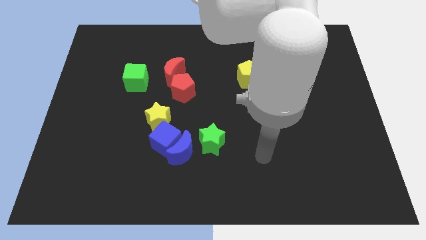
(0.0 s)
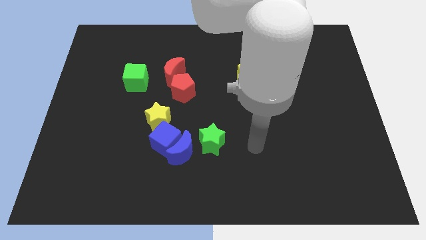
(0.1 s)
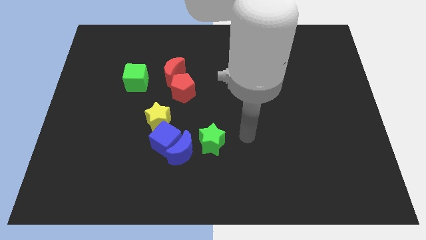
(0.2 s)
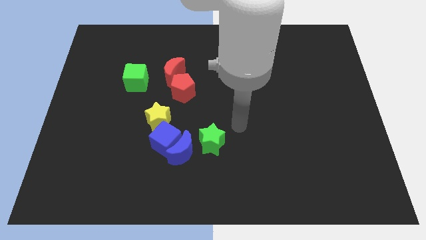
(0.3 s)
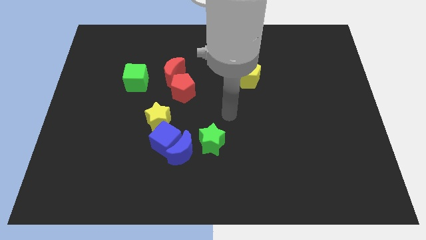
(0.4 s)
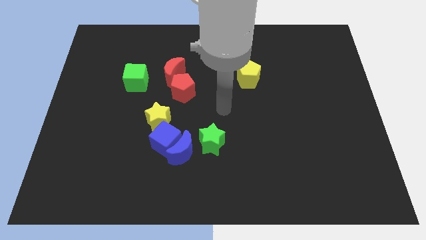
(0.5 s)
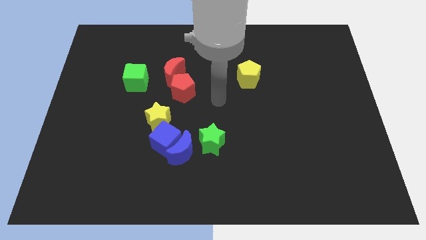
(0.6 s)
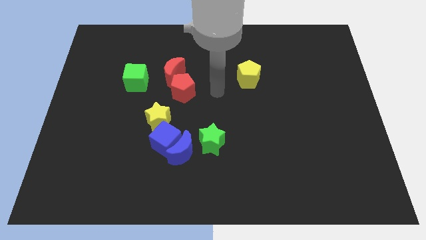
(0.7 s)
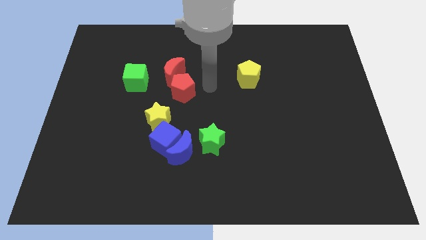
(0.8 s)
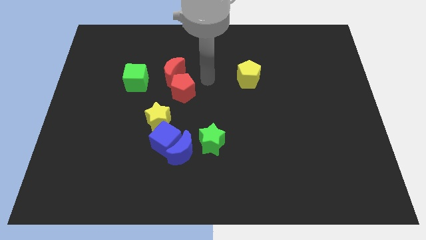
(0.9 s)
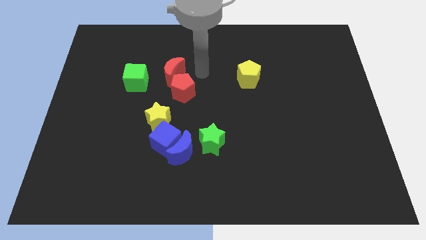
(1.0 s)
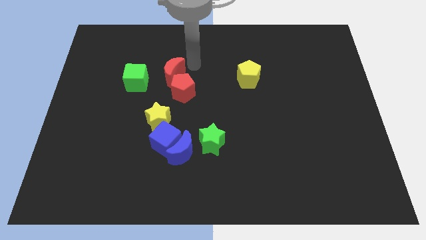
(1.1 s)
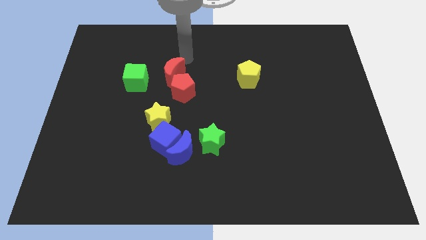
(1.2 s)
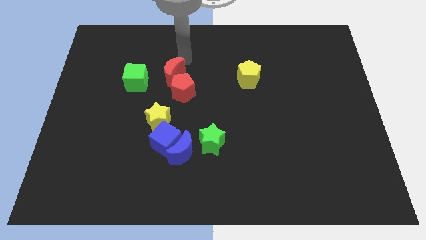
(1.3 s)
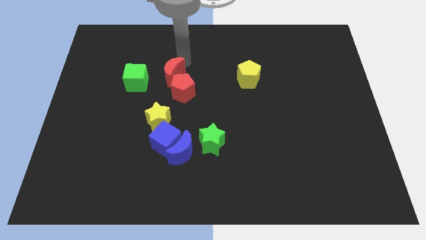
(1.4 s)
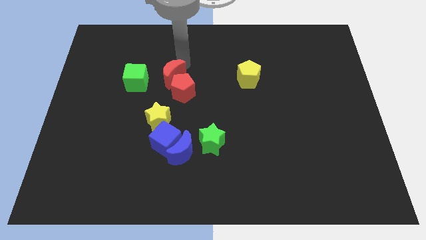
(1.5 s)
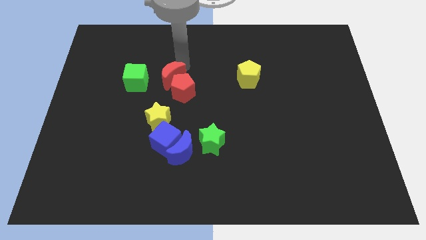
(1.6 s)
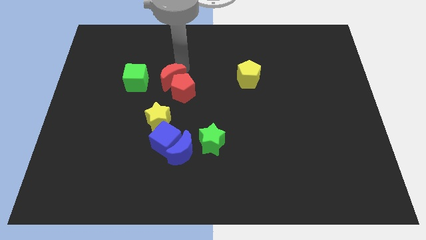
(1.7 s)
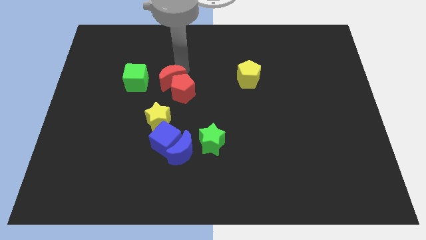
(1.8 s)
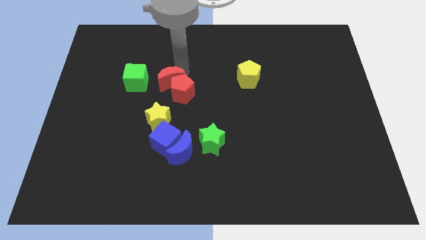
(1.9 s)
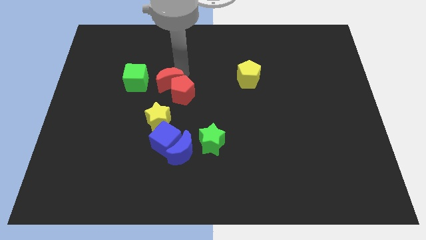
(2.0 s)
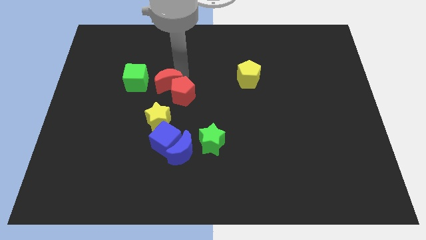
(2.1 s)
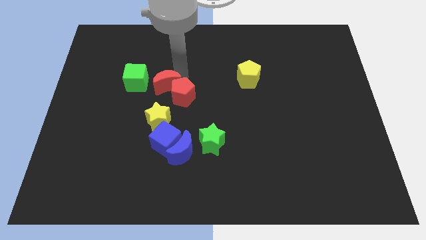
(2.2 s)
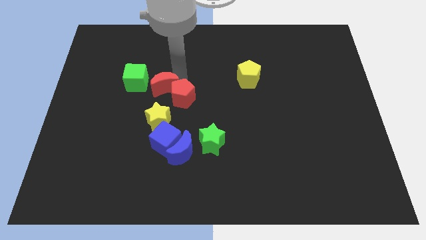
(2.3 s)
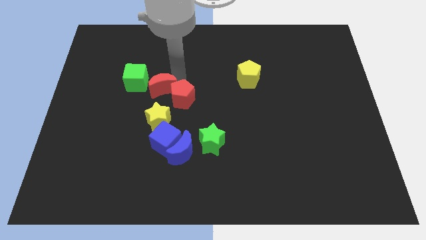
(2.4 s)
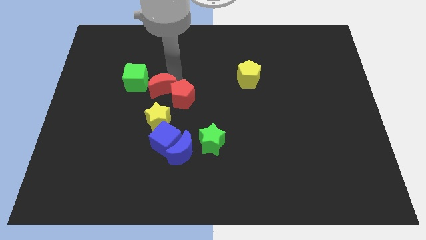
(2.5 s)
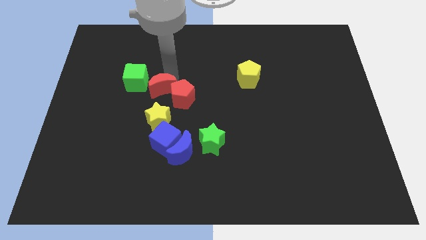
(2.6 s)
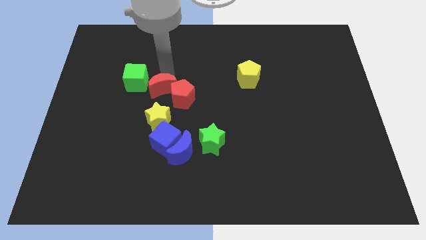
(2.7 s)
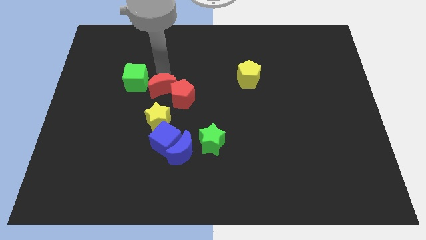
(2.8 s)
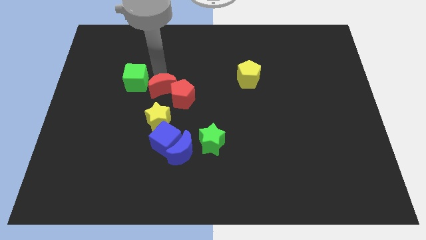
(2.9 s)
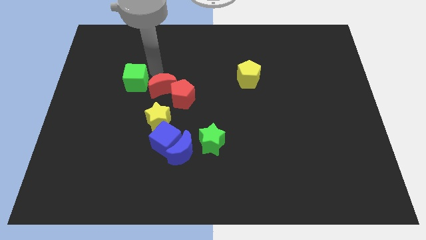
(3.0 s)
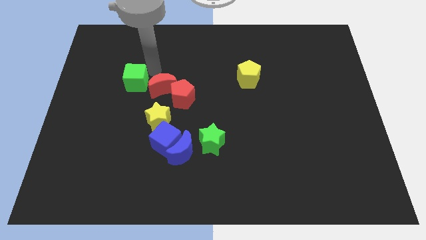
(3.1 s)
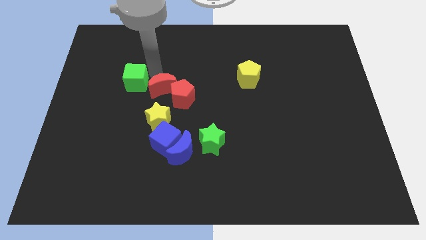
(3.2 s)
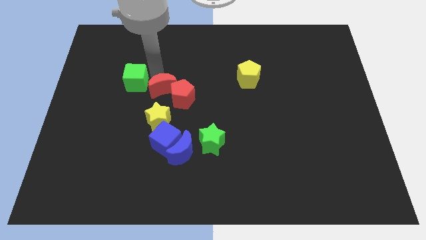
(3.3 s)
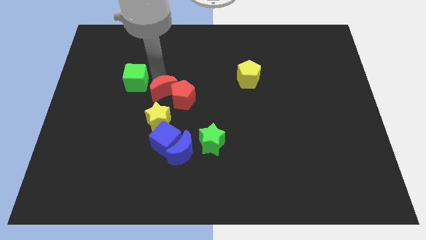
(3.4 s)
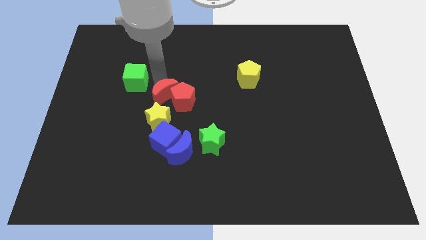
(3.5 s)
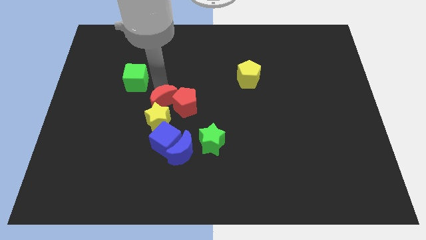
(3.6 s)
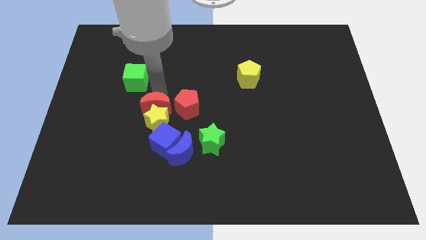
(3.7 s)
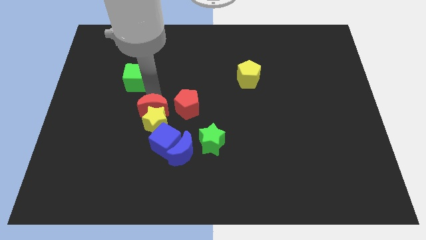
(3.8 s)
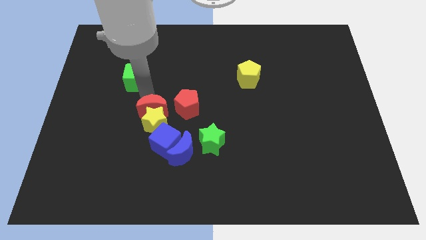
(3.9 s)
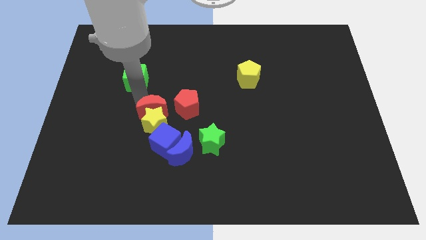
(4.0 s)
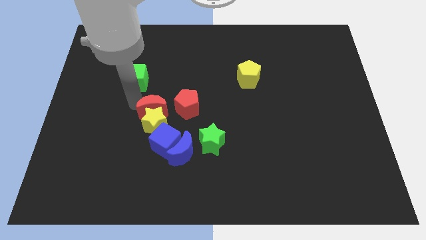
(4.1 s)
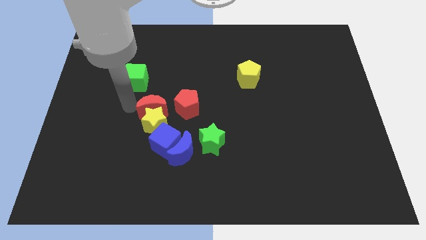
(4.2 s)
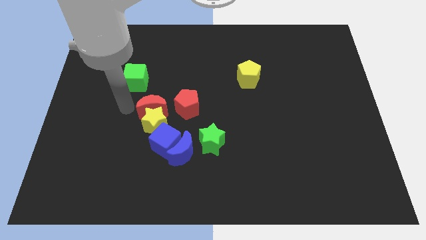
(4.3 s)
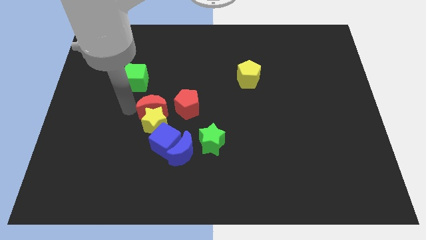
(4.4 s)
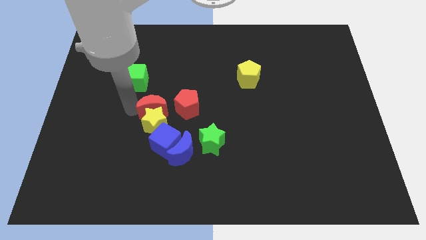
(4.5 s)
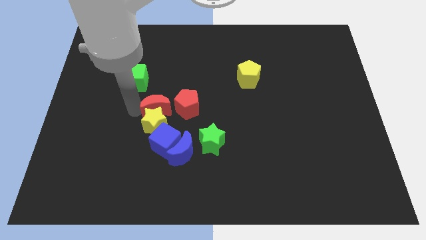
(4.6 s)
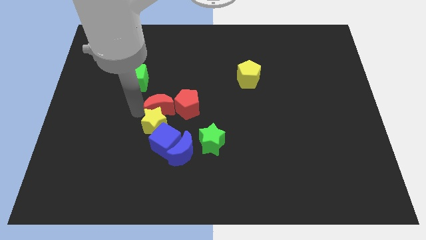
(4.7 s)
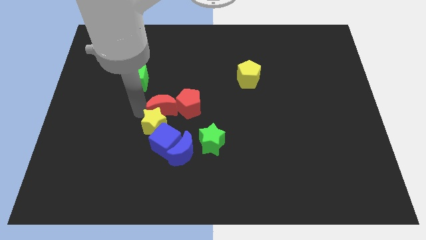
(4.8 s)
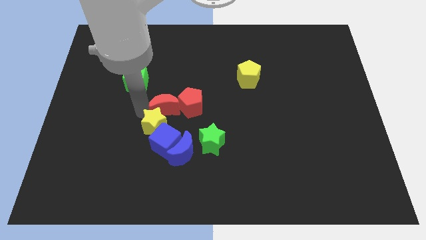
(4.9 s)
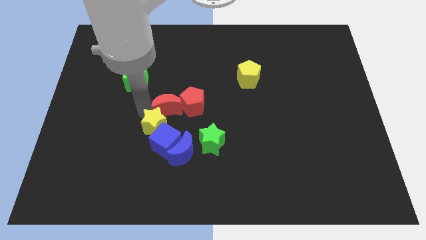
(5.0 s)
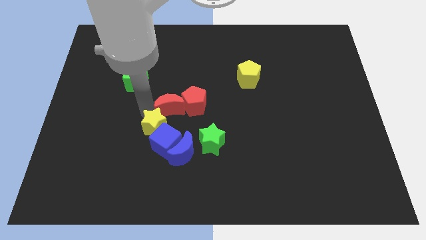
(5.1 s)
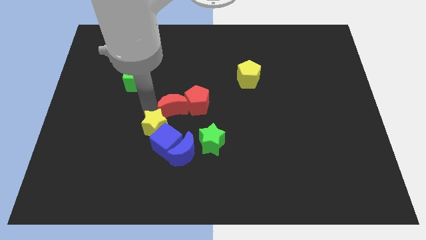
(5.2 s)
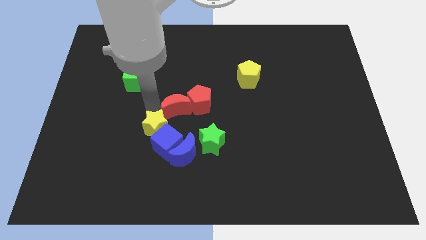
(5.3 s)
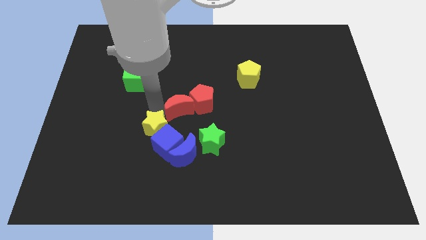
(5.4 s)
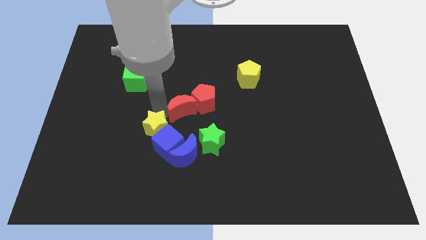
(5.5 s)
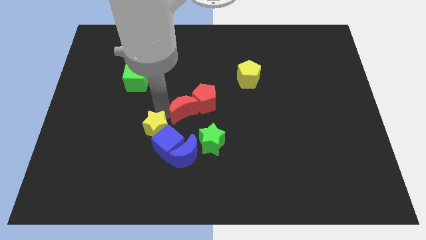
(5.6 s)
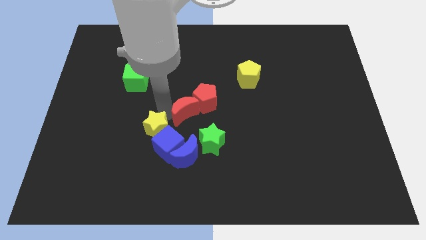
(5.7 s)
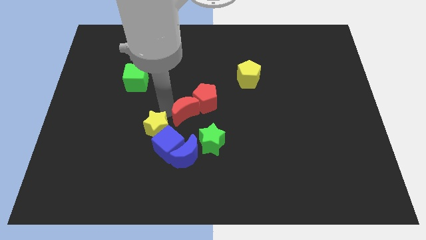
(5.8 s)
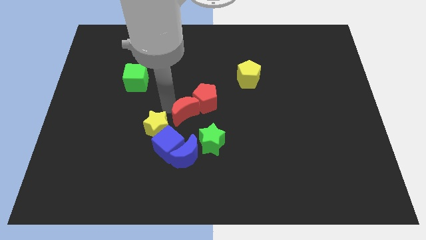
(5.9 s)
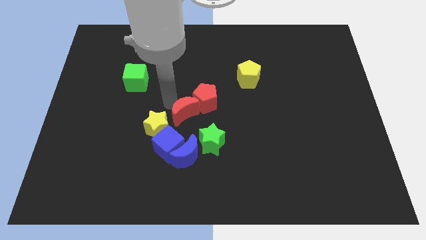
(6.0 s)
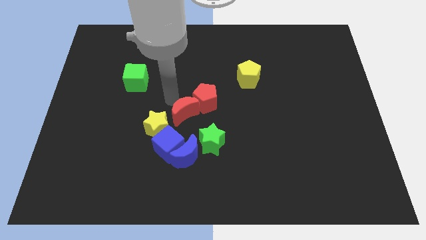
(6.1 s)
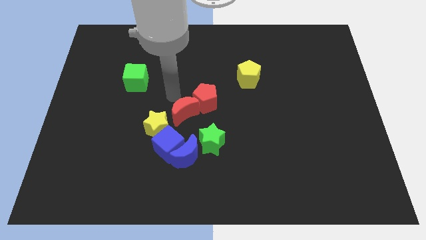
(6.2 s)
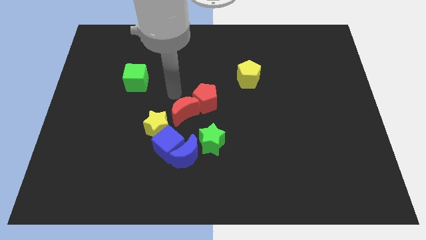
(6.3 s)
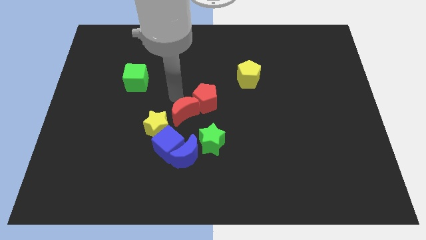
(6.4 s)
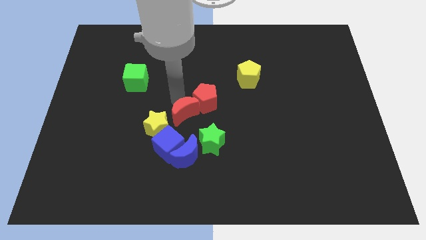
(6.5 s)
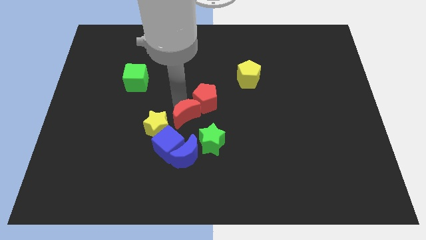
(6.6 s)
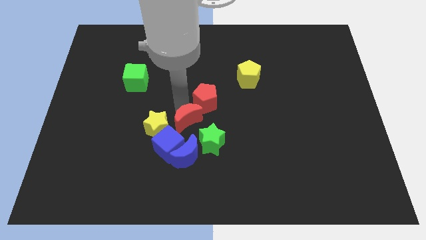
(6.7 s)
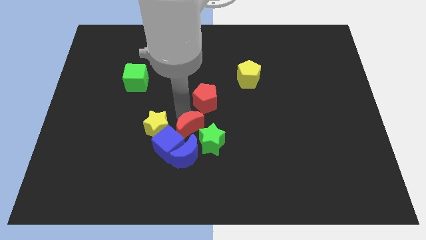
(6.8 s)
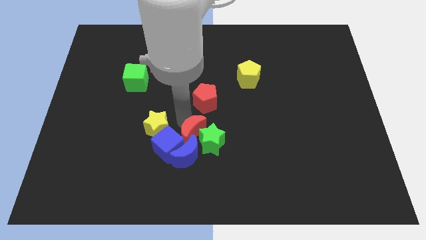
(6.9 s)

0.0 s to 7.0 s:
slide the red moon close to the green star

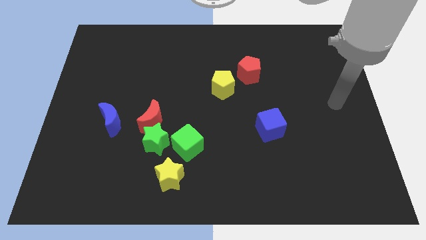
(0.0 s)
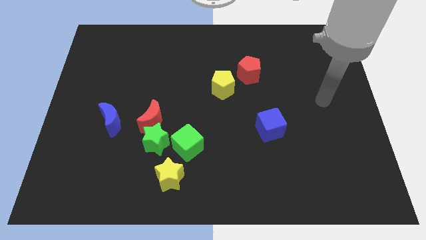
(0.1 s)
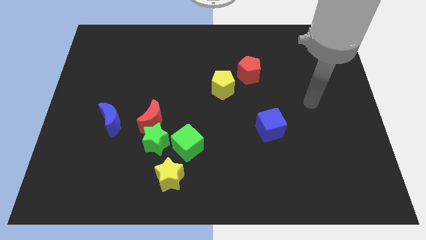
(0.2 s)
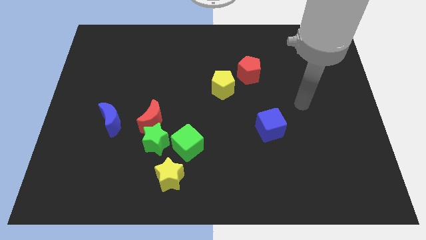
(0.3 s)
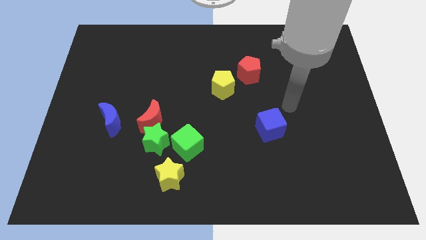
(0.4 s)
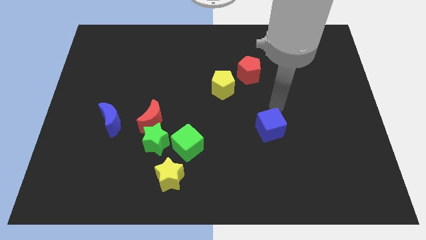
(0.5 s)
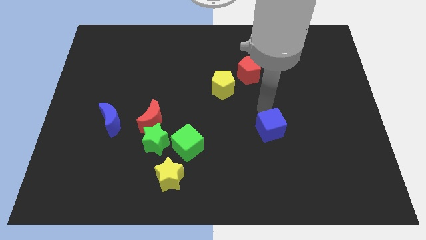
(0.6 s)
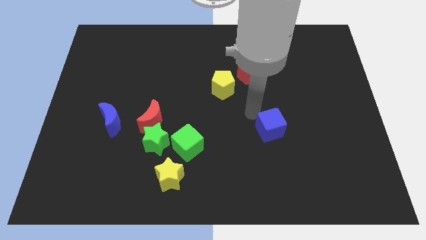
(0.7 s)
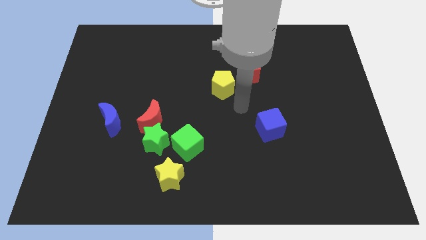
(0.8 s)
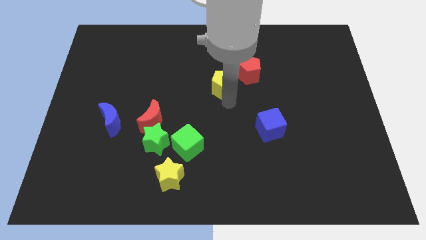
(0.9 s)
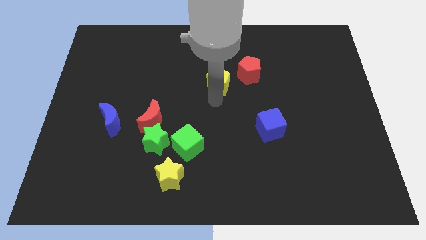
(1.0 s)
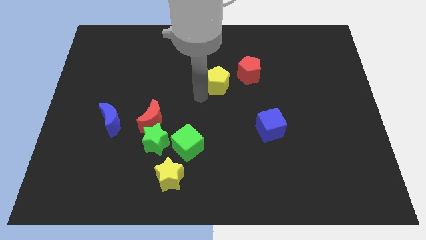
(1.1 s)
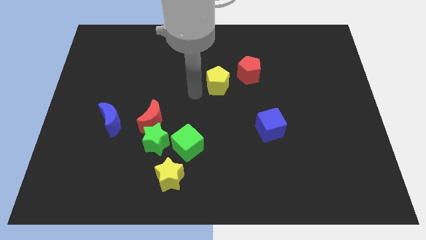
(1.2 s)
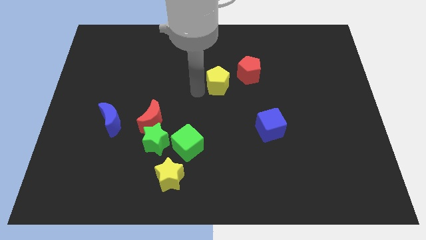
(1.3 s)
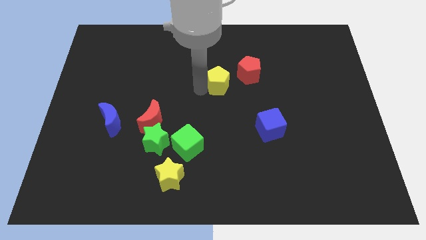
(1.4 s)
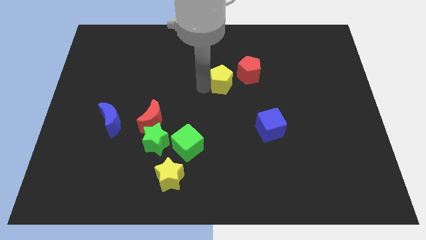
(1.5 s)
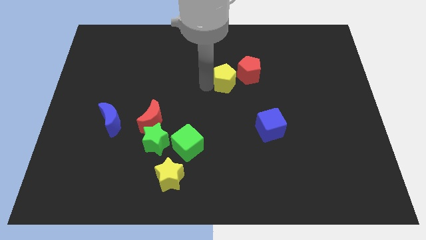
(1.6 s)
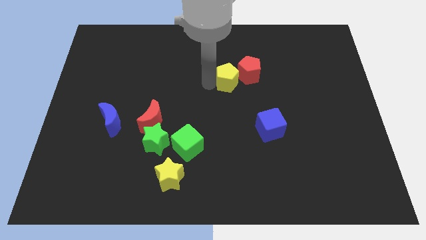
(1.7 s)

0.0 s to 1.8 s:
slide the yellow pentagon towards the red pentagon
